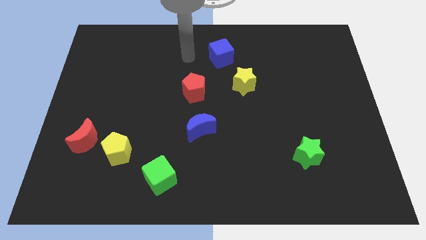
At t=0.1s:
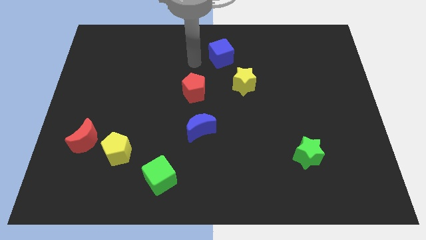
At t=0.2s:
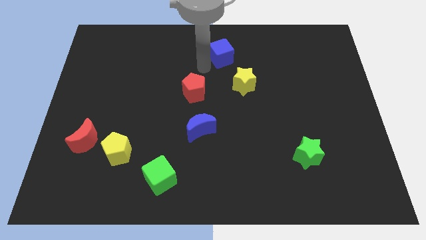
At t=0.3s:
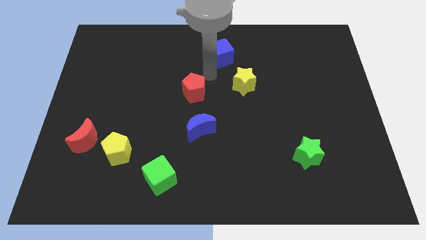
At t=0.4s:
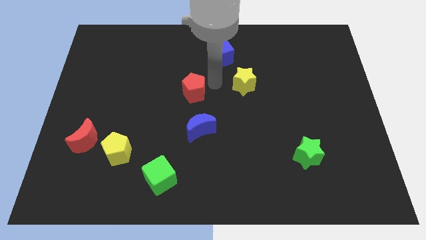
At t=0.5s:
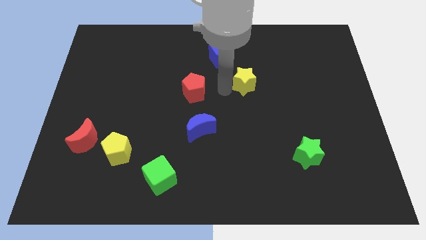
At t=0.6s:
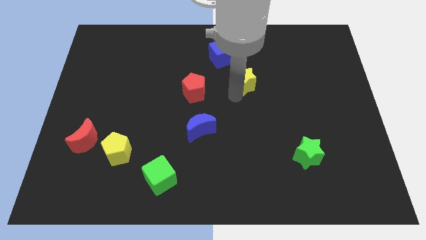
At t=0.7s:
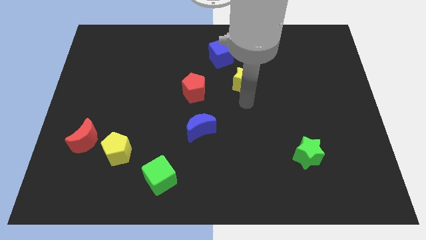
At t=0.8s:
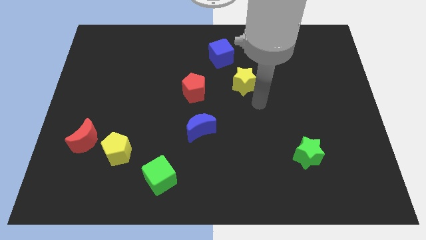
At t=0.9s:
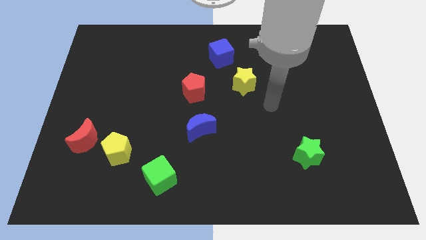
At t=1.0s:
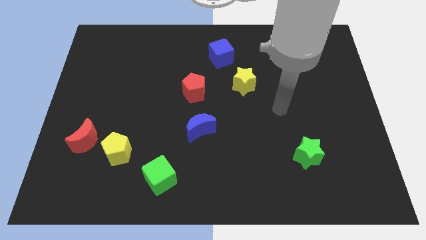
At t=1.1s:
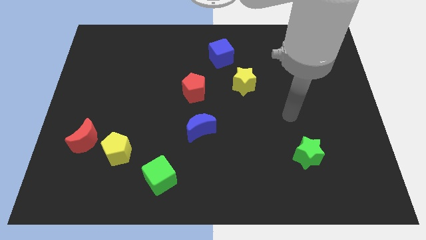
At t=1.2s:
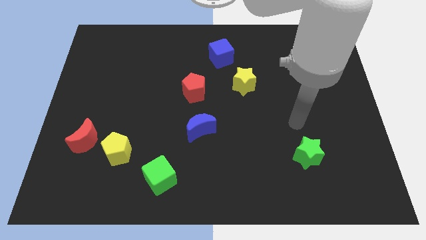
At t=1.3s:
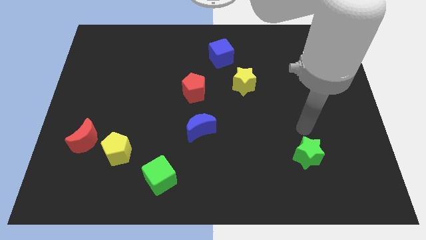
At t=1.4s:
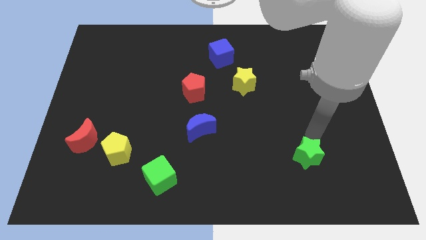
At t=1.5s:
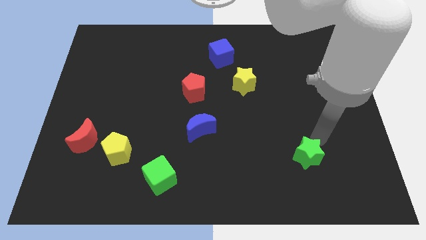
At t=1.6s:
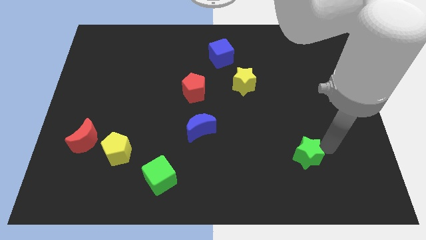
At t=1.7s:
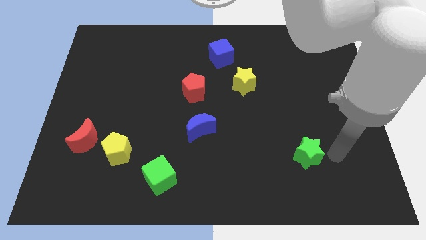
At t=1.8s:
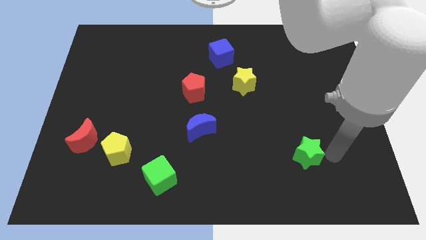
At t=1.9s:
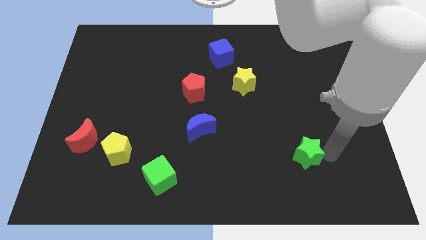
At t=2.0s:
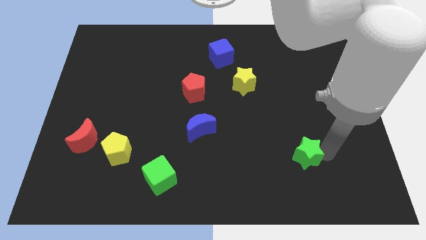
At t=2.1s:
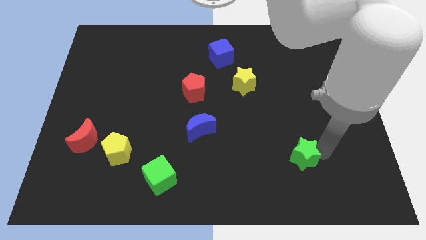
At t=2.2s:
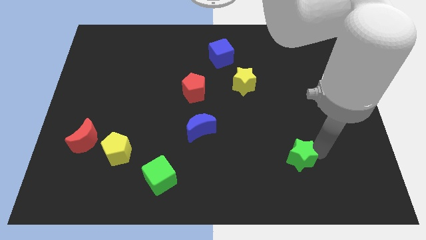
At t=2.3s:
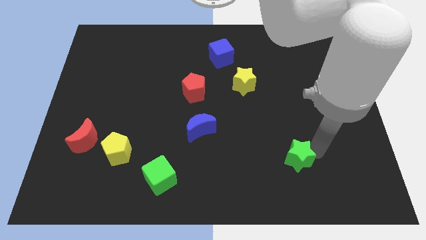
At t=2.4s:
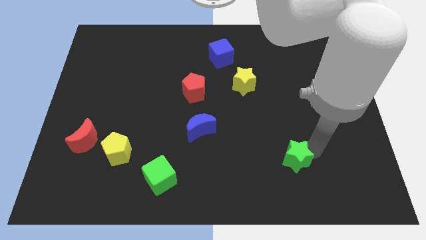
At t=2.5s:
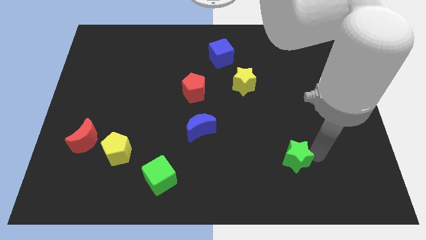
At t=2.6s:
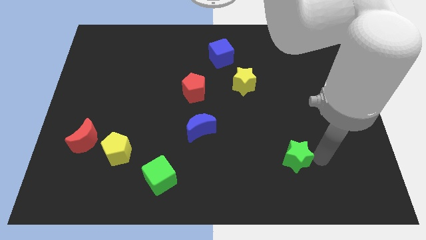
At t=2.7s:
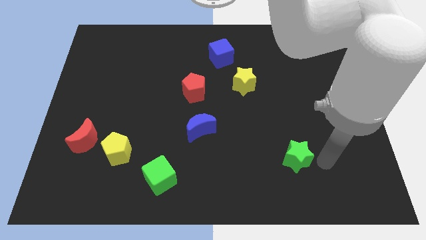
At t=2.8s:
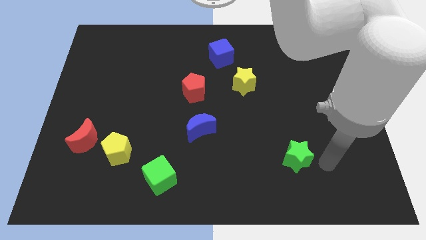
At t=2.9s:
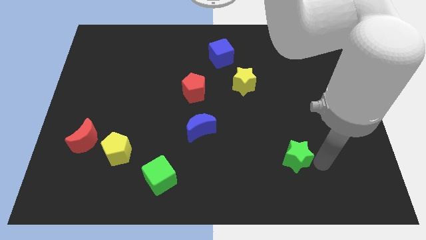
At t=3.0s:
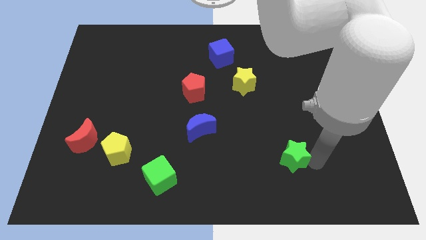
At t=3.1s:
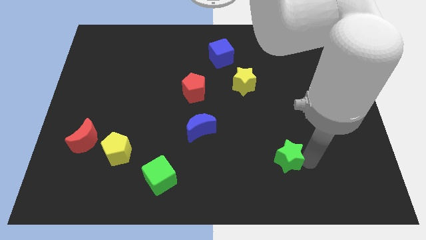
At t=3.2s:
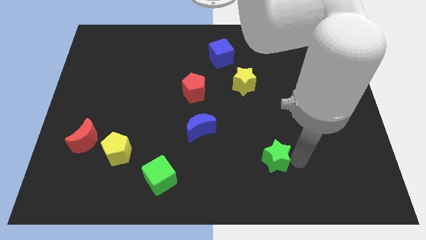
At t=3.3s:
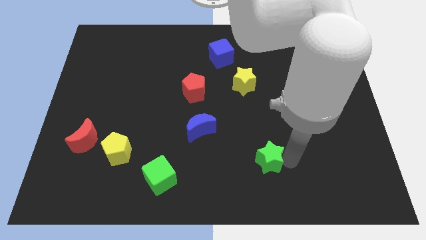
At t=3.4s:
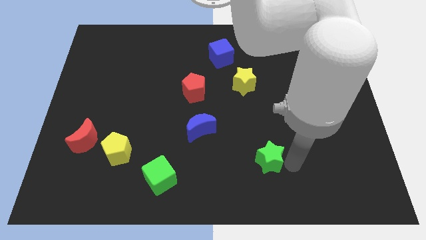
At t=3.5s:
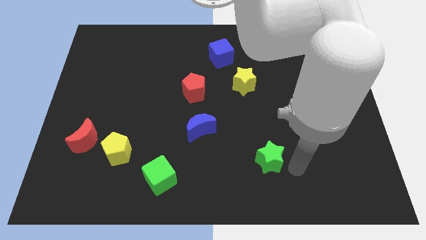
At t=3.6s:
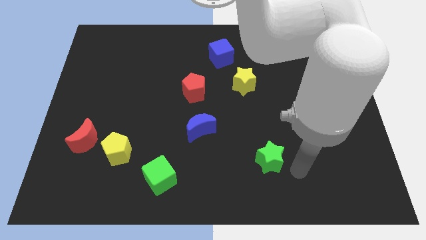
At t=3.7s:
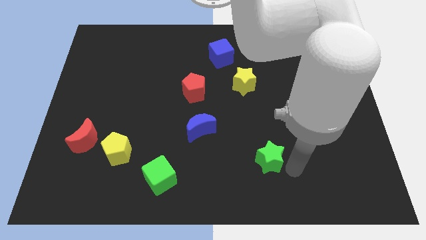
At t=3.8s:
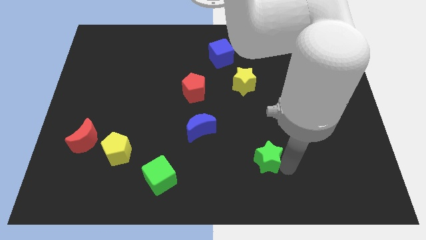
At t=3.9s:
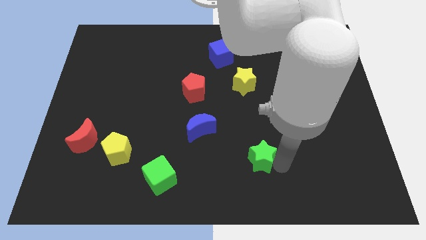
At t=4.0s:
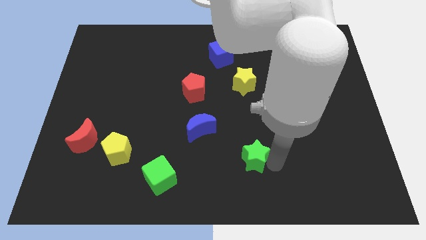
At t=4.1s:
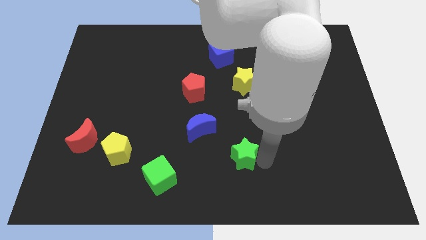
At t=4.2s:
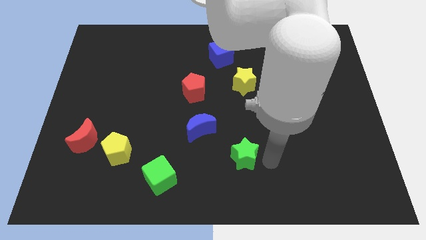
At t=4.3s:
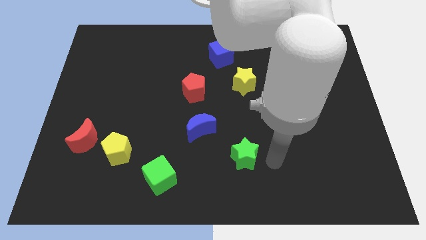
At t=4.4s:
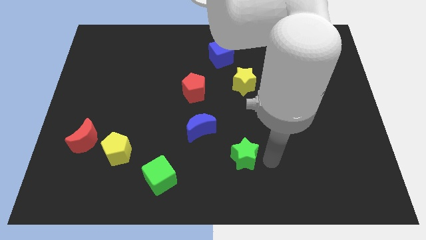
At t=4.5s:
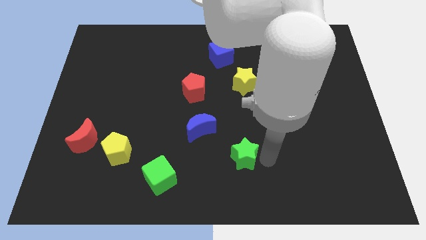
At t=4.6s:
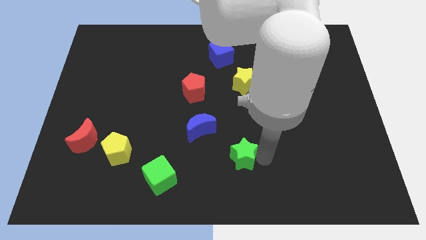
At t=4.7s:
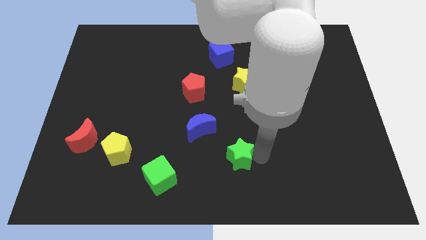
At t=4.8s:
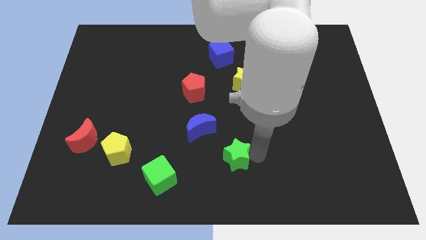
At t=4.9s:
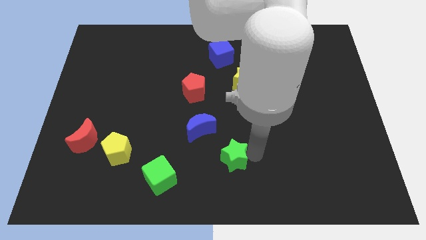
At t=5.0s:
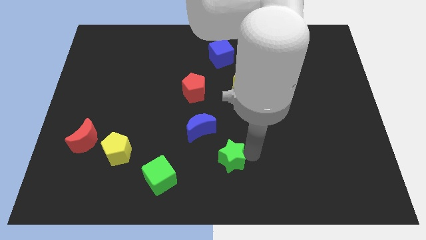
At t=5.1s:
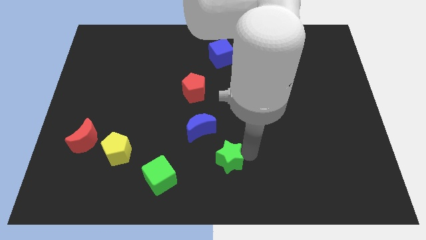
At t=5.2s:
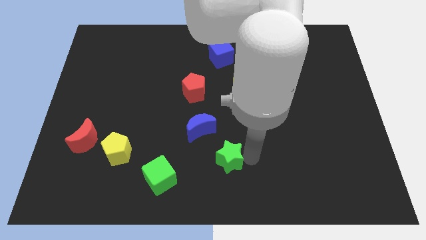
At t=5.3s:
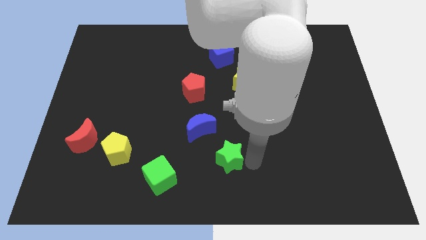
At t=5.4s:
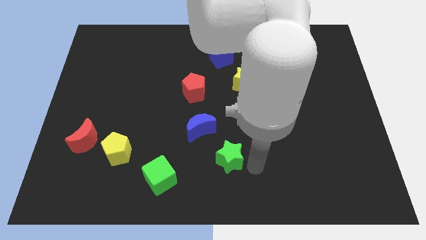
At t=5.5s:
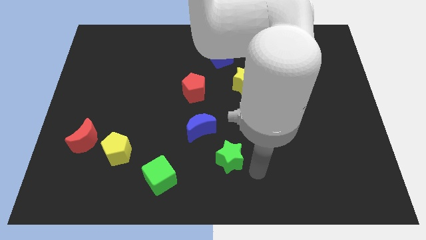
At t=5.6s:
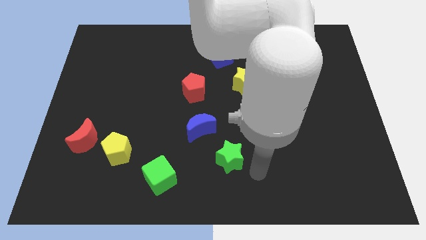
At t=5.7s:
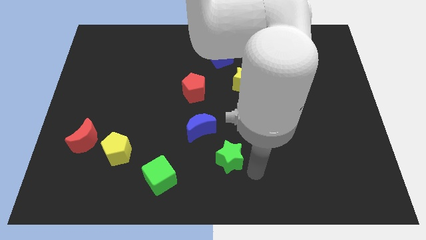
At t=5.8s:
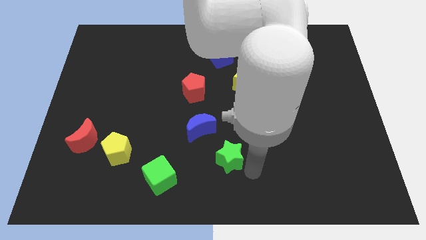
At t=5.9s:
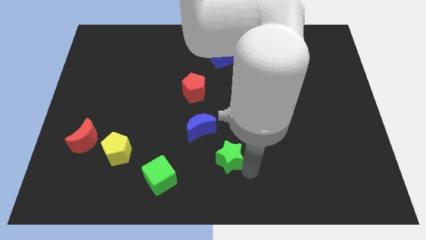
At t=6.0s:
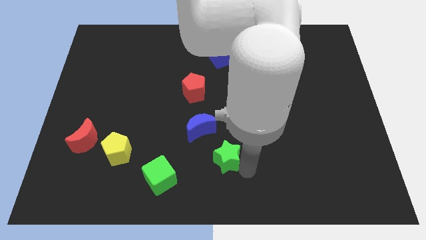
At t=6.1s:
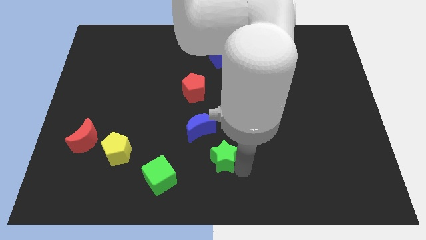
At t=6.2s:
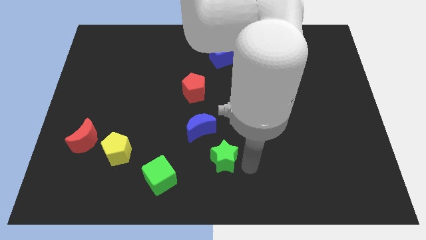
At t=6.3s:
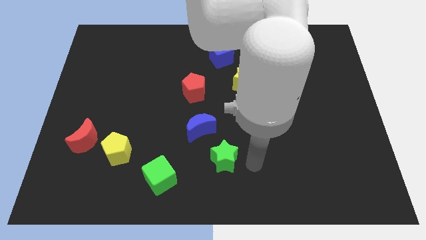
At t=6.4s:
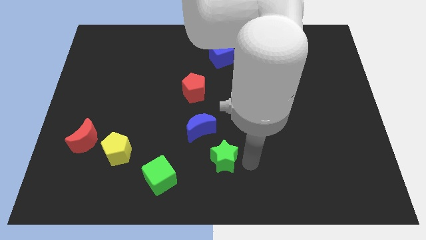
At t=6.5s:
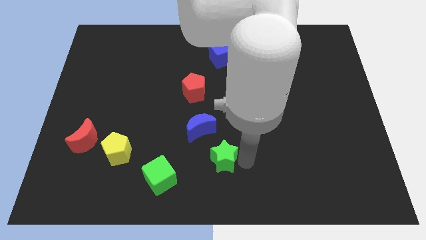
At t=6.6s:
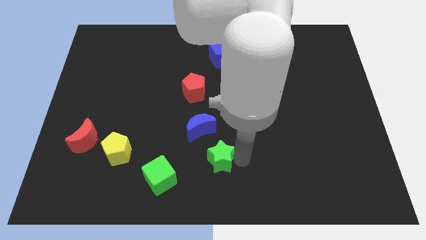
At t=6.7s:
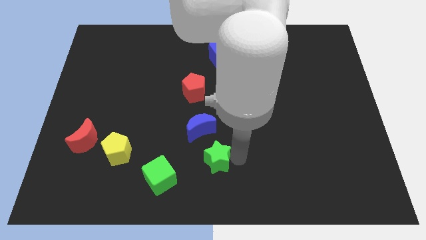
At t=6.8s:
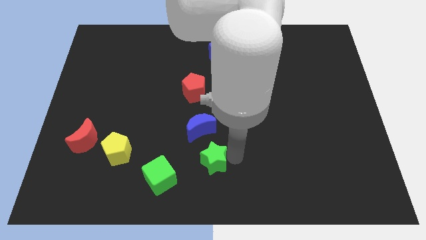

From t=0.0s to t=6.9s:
move the green star to the left

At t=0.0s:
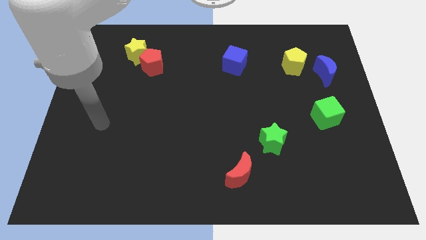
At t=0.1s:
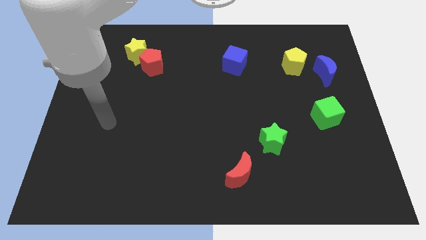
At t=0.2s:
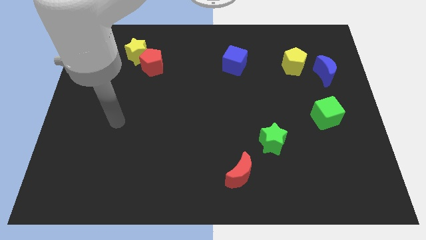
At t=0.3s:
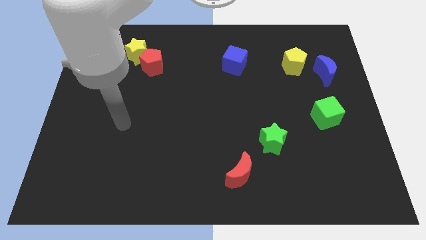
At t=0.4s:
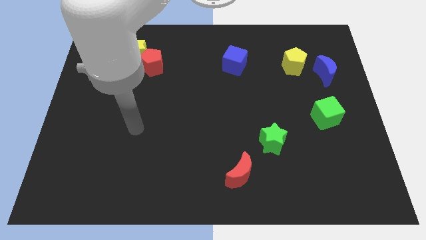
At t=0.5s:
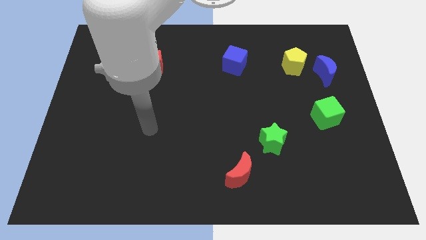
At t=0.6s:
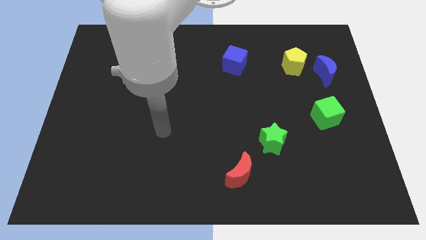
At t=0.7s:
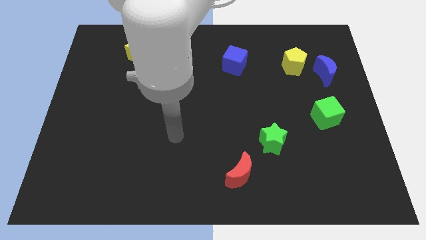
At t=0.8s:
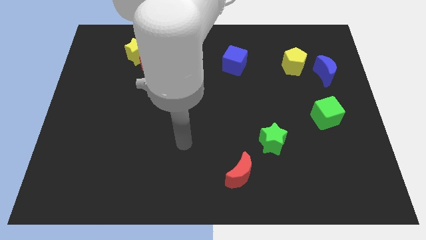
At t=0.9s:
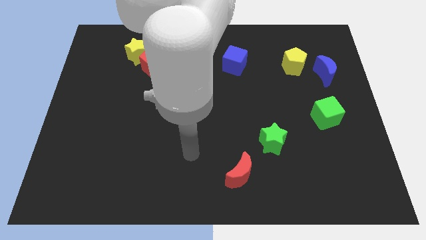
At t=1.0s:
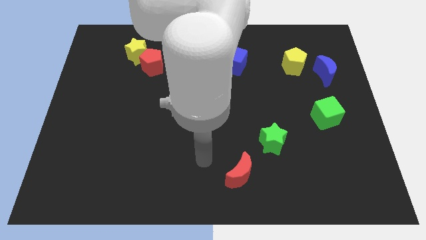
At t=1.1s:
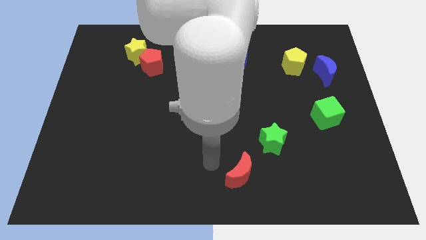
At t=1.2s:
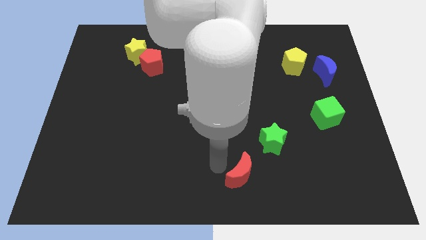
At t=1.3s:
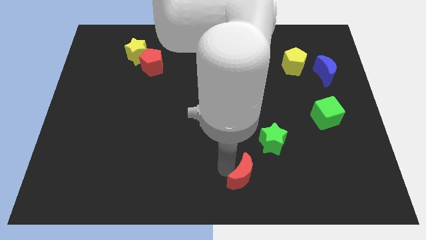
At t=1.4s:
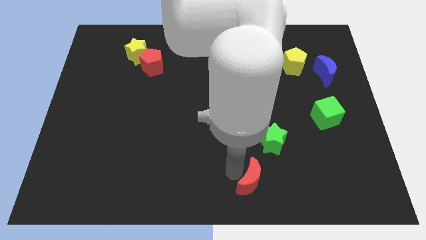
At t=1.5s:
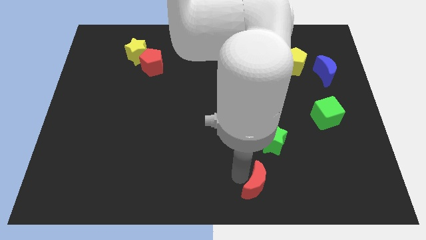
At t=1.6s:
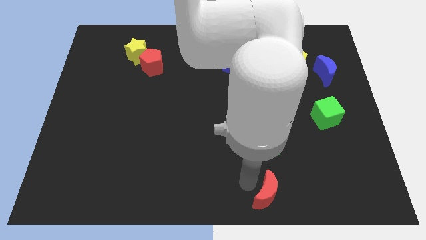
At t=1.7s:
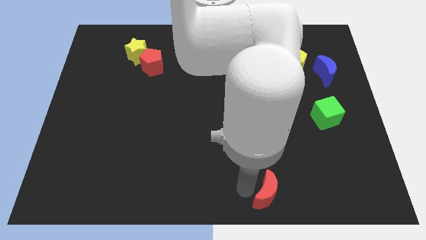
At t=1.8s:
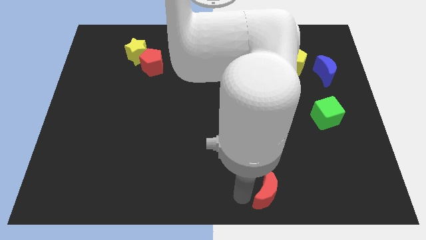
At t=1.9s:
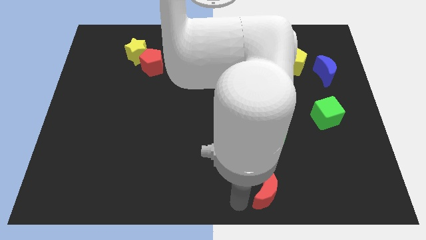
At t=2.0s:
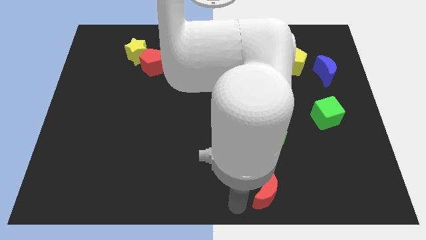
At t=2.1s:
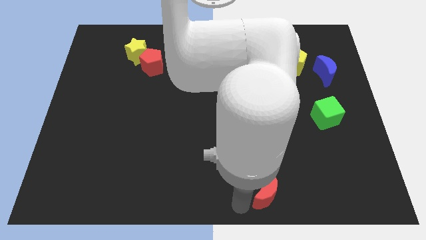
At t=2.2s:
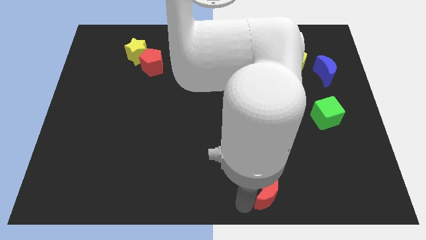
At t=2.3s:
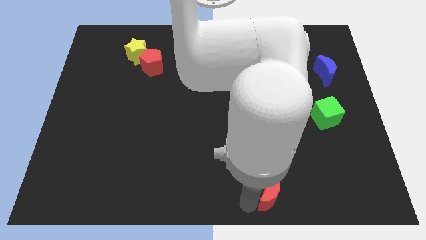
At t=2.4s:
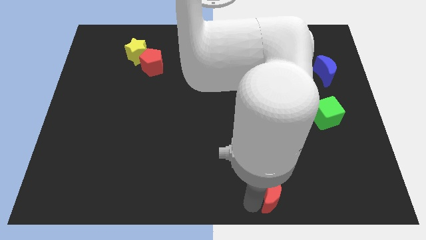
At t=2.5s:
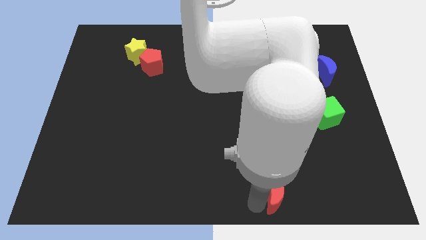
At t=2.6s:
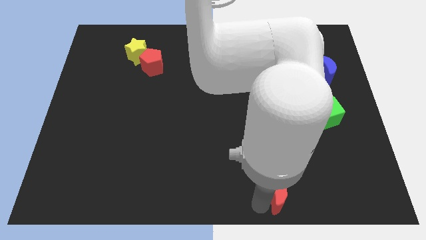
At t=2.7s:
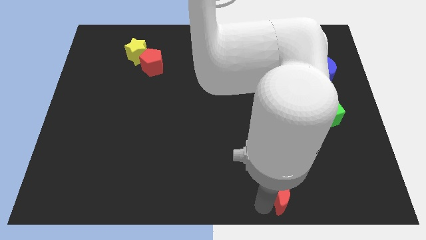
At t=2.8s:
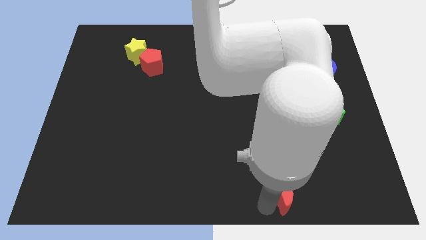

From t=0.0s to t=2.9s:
move the red moon a little to the right
